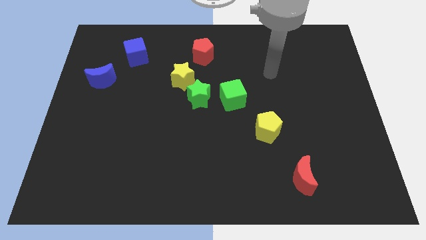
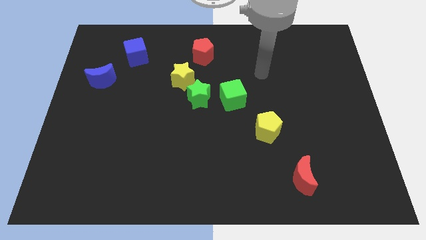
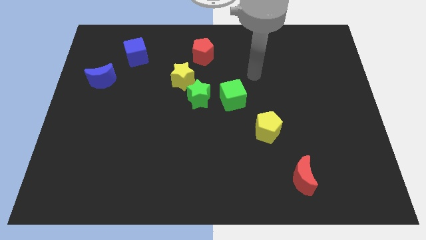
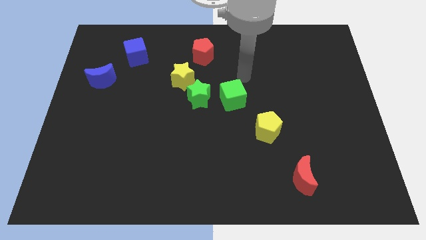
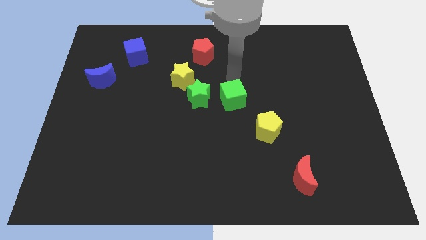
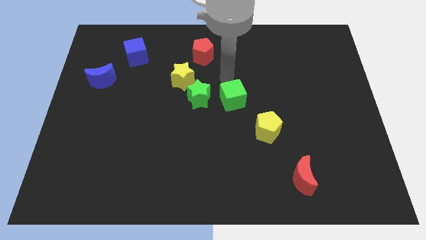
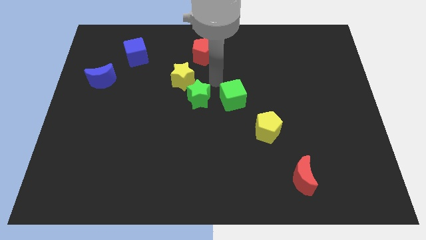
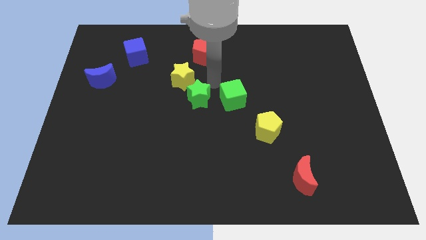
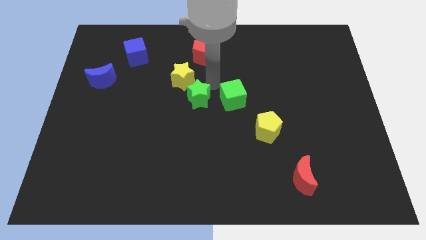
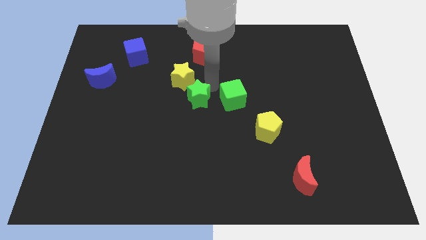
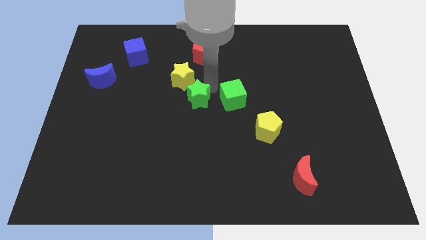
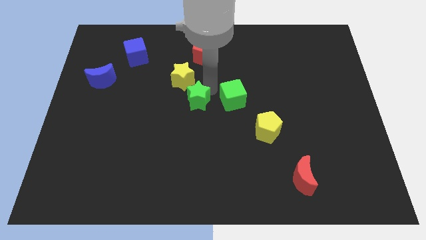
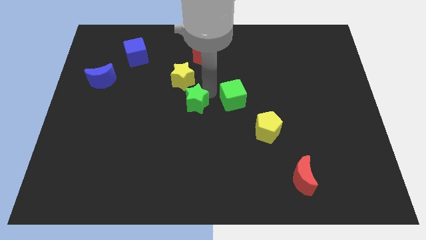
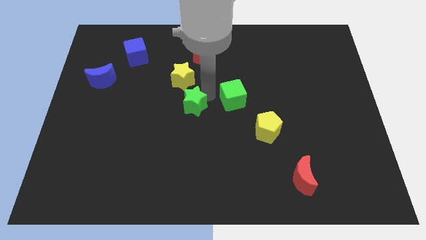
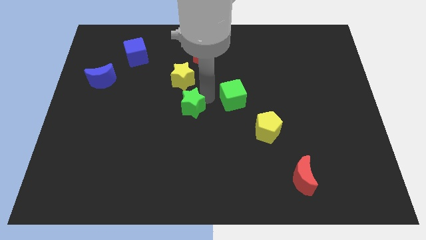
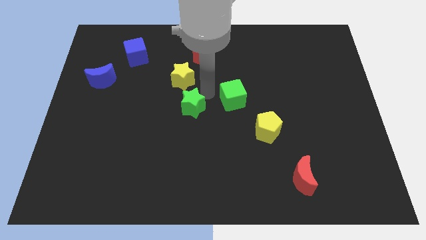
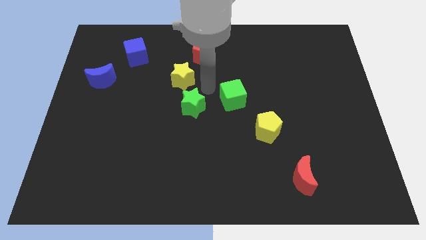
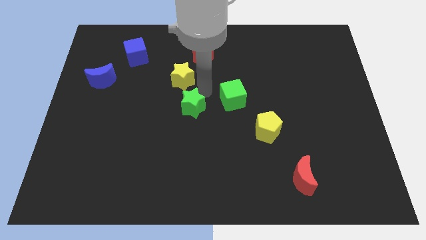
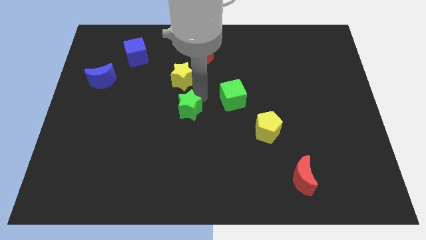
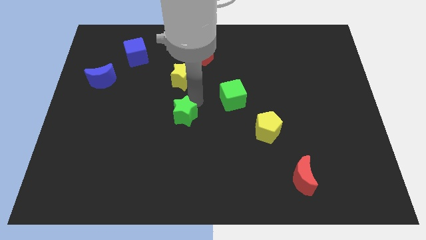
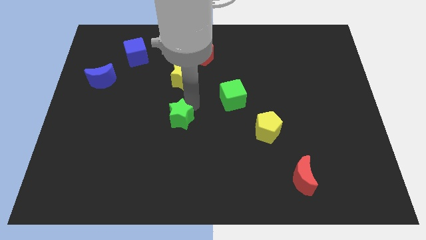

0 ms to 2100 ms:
separate the green star from the yellow star and green cube

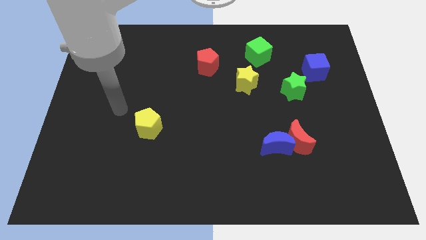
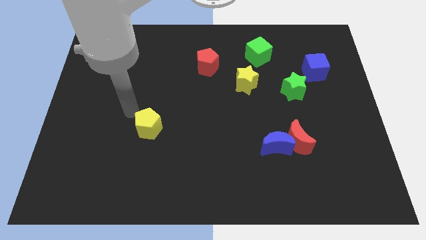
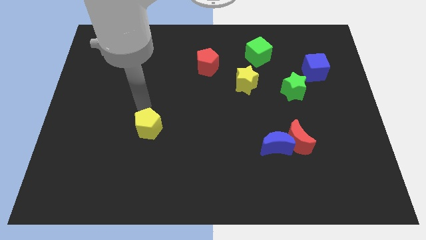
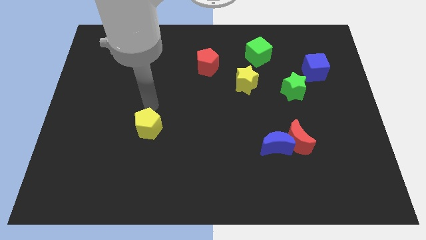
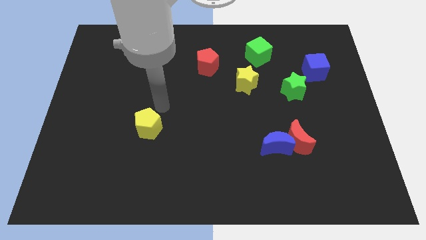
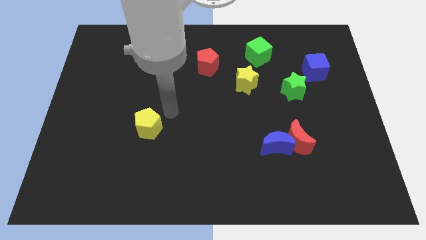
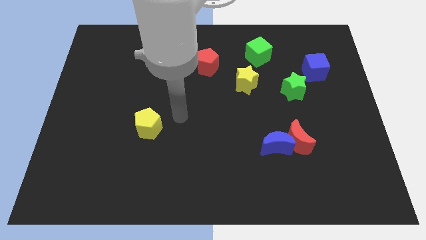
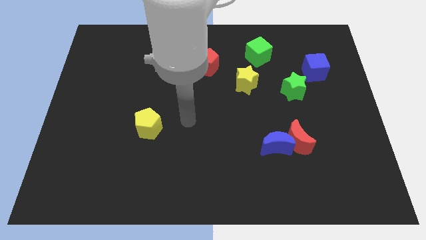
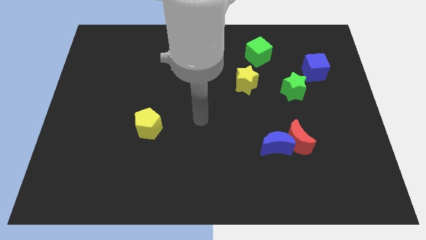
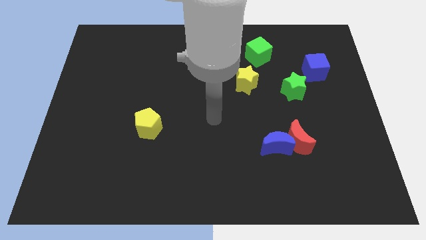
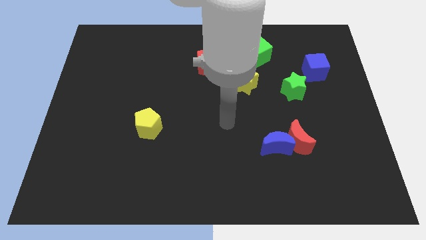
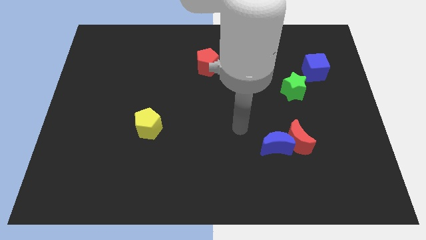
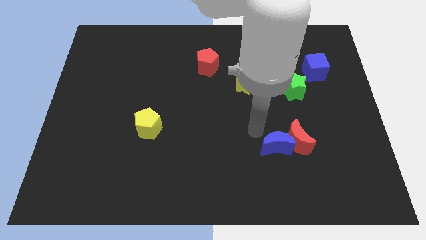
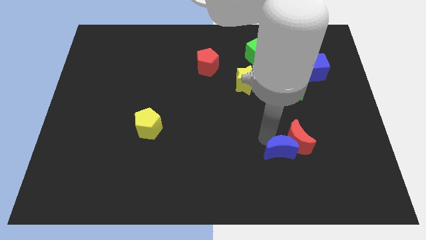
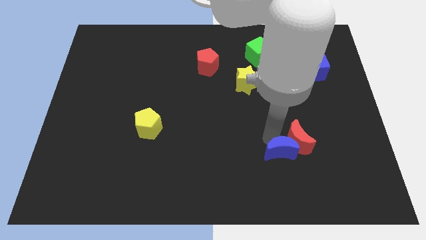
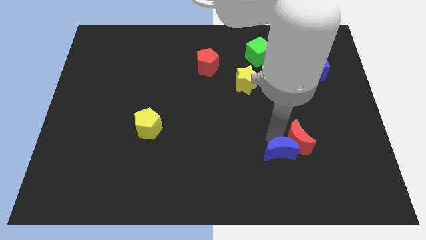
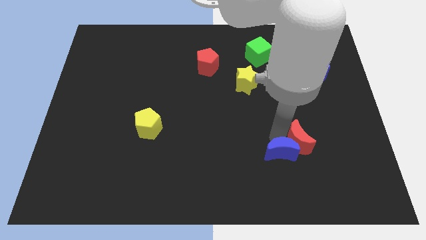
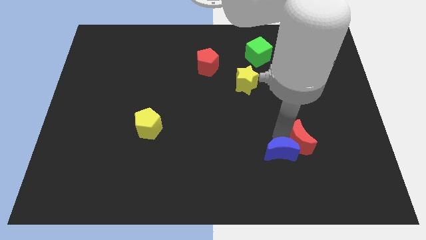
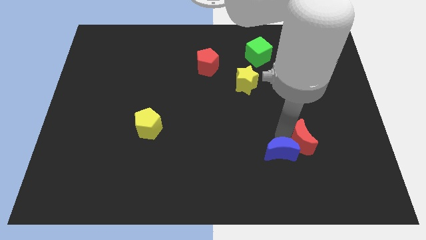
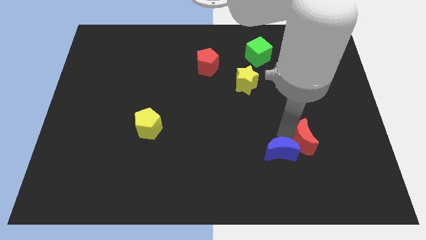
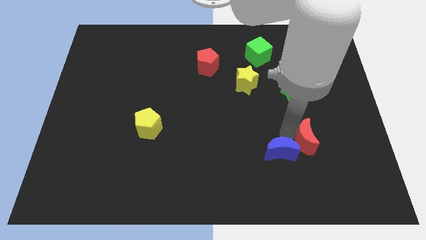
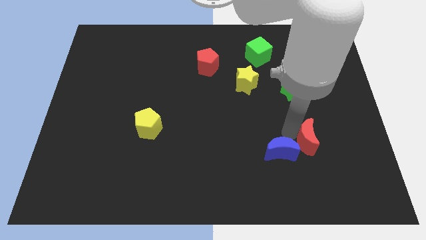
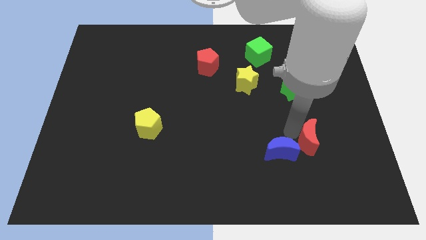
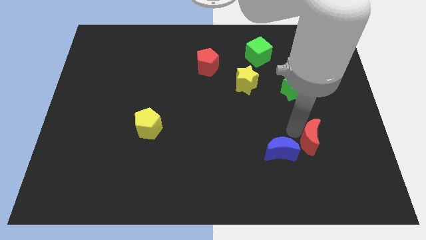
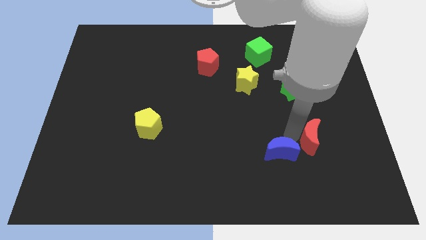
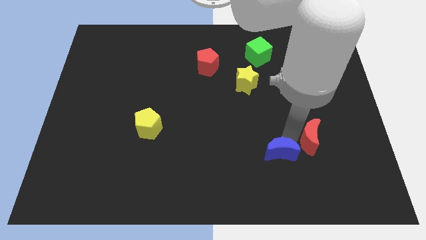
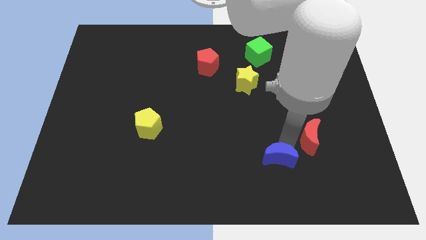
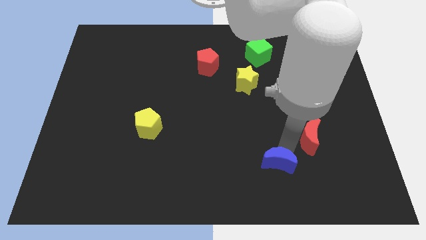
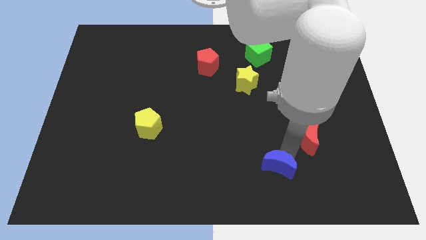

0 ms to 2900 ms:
separate the red moon from the blue moon

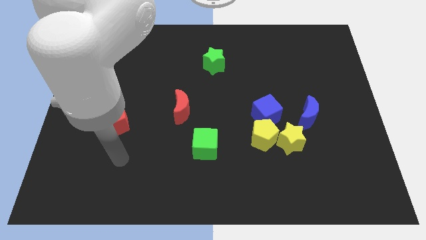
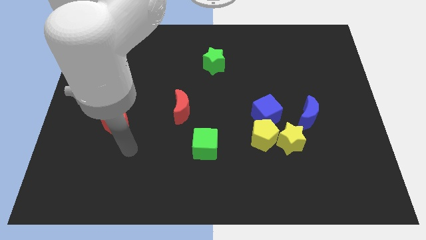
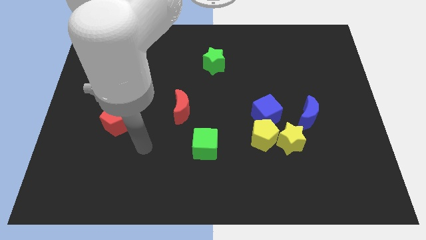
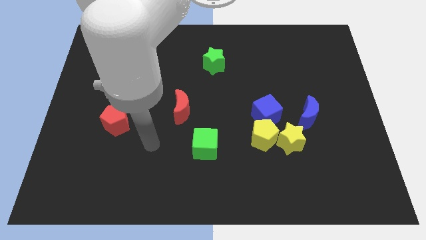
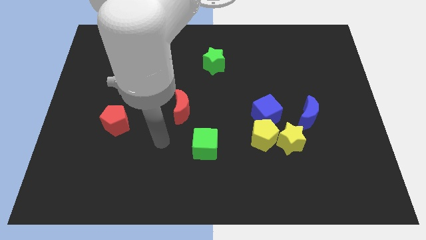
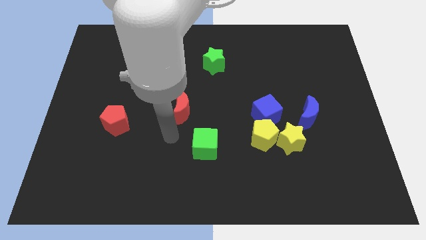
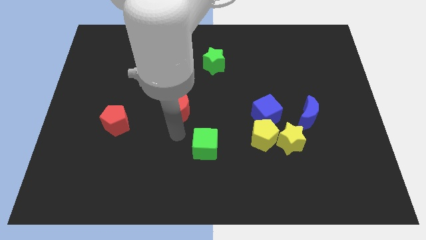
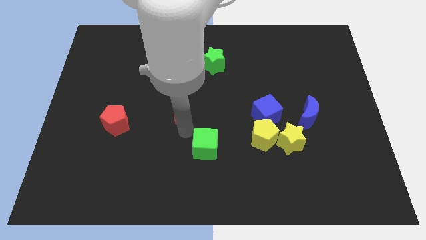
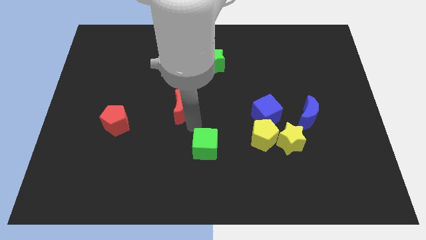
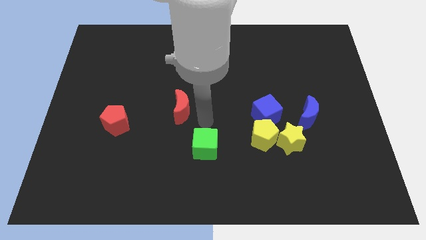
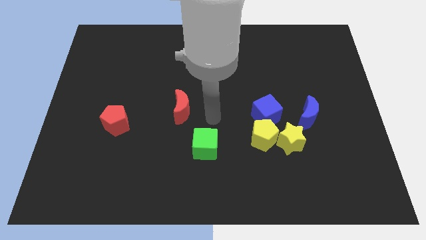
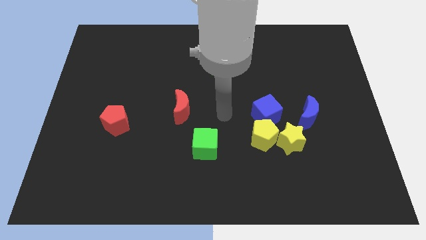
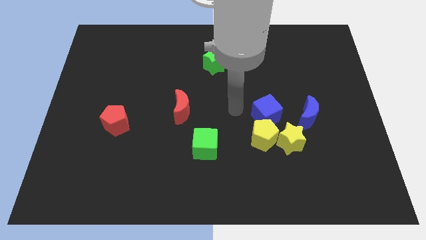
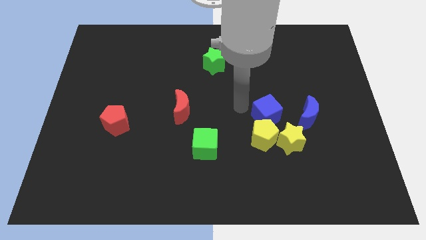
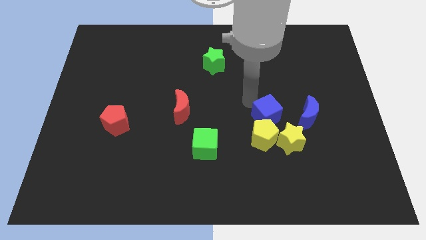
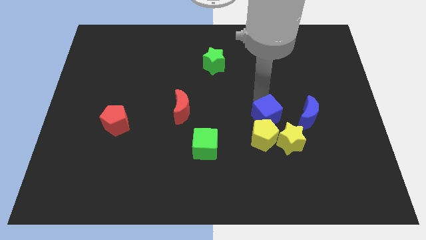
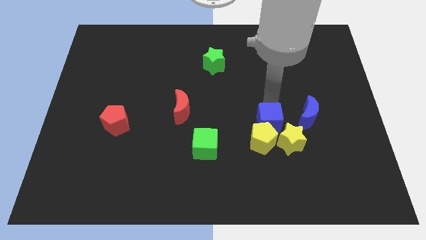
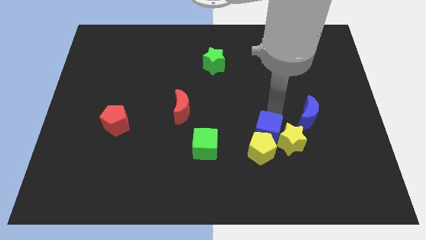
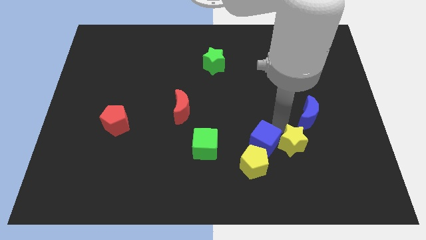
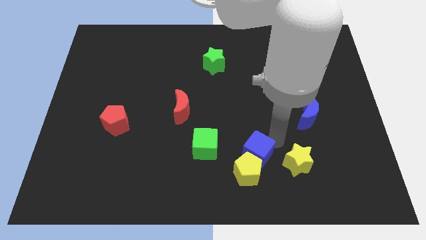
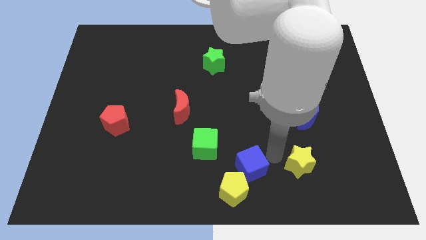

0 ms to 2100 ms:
pull the yellow pentagon apart from the yellow star and blue cube

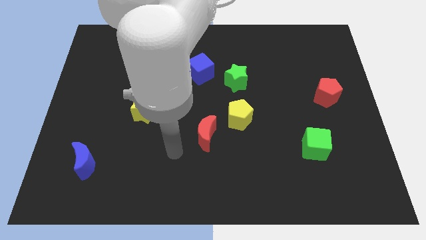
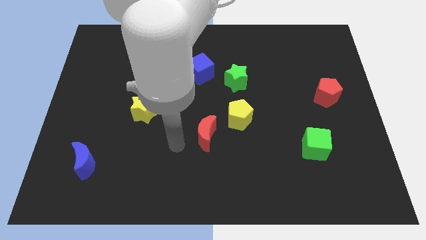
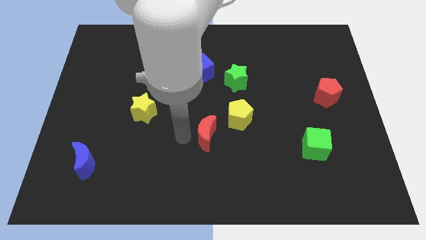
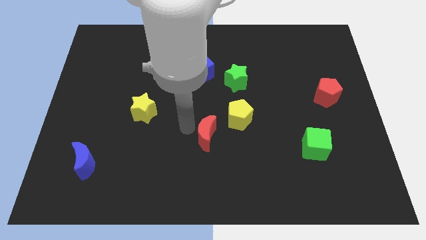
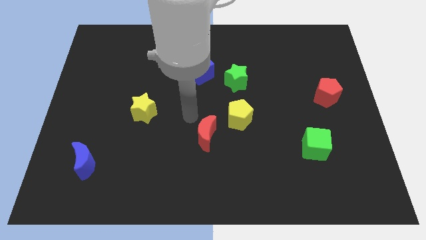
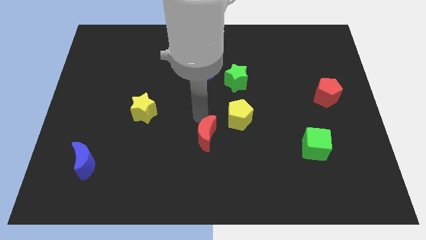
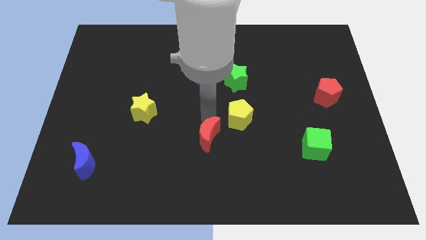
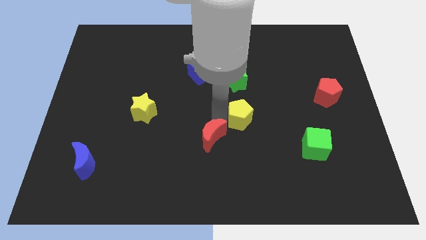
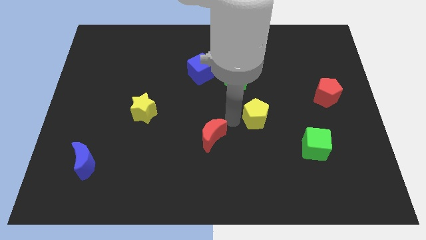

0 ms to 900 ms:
pull the red moon apart from the yellow pentagon

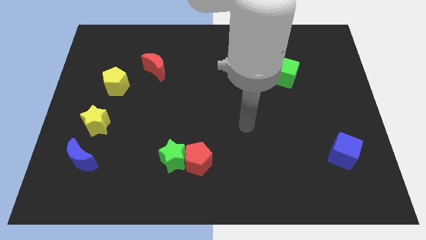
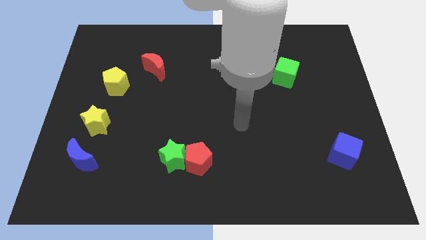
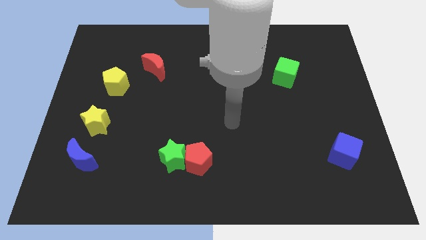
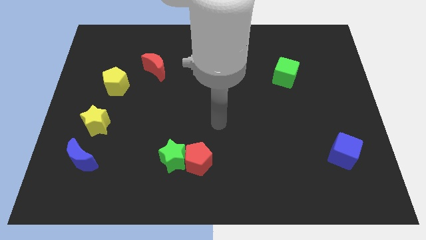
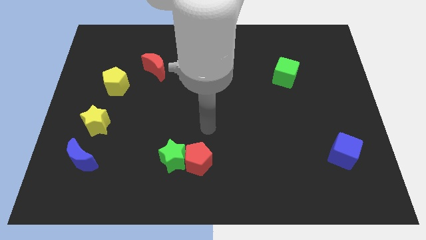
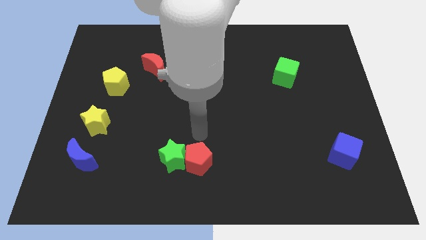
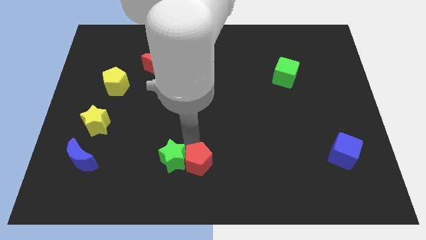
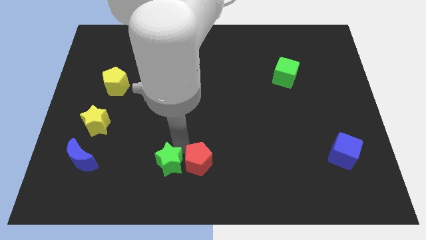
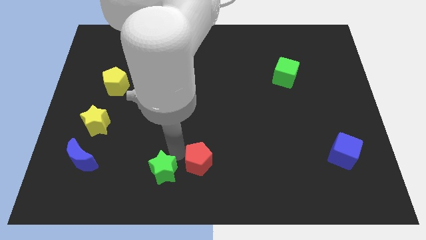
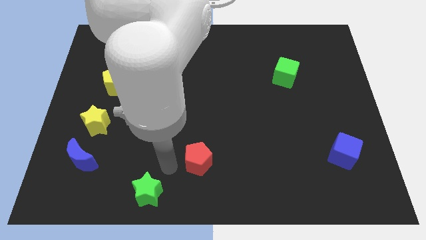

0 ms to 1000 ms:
separate the red pentagon from the green star

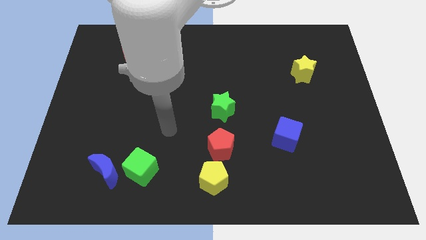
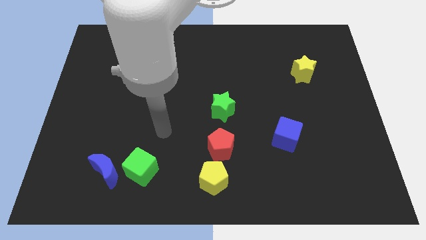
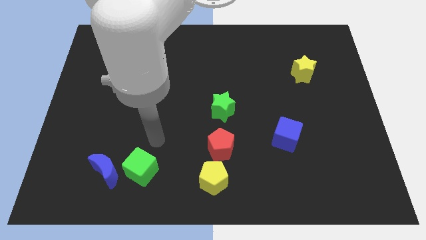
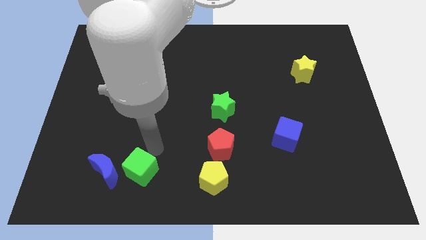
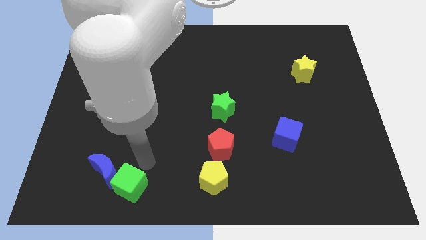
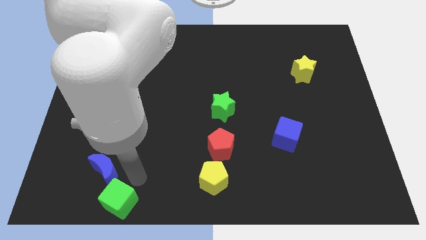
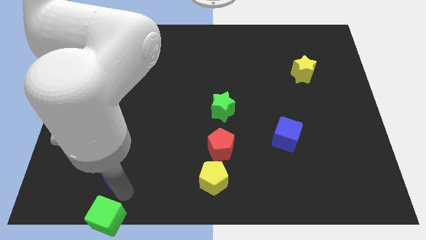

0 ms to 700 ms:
move the blue moon away from the green cube
